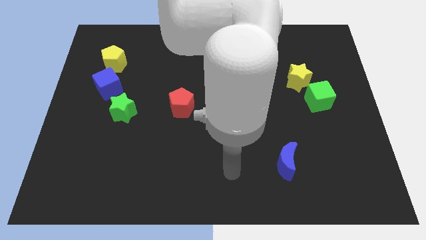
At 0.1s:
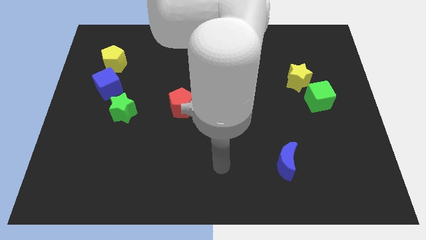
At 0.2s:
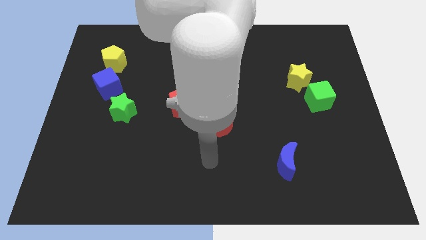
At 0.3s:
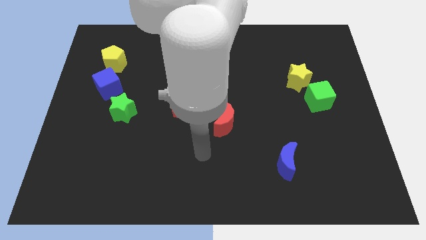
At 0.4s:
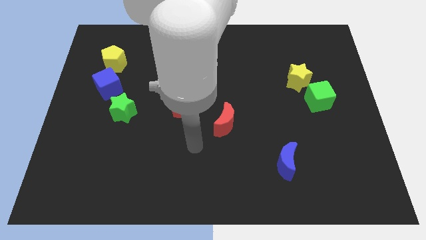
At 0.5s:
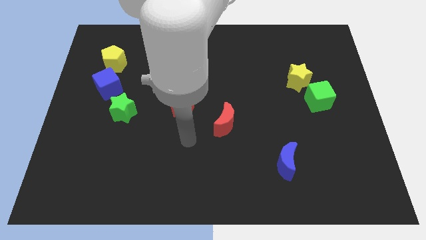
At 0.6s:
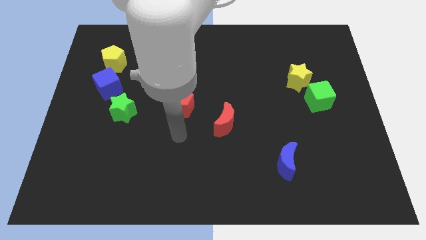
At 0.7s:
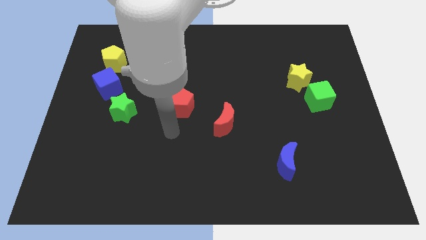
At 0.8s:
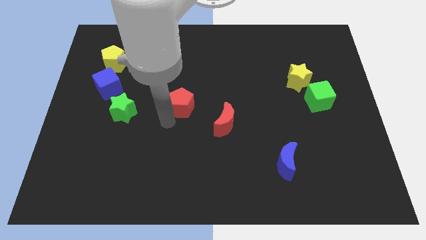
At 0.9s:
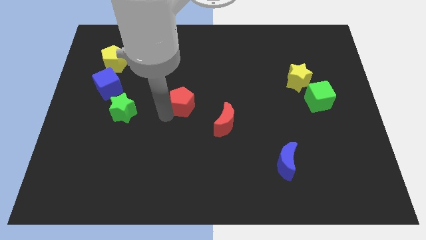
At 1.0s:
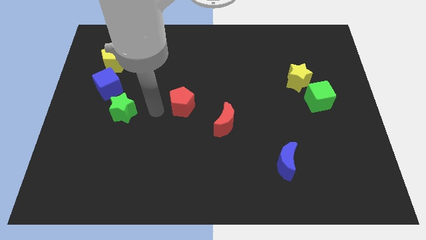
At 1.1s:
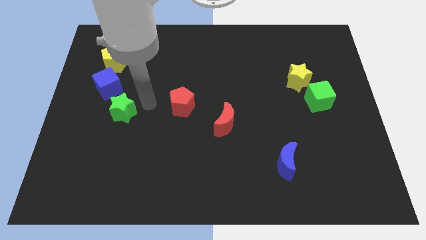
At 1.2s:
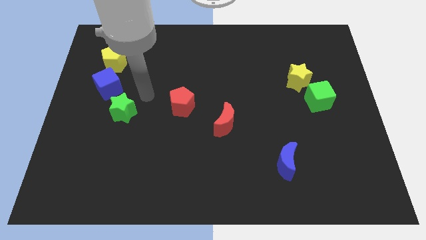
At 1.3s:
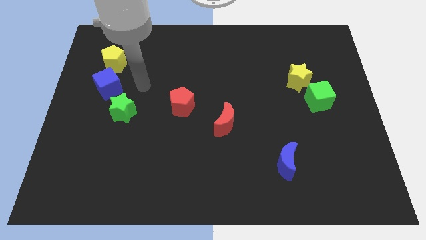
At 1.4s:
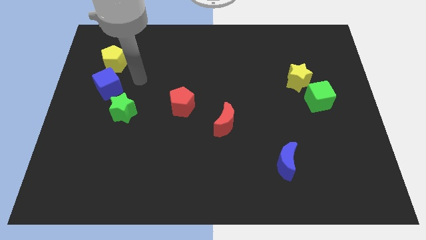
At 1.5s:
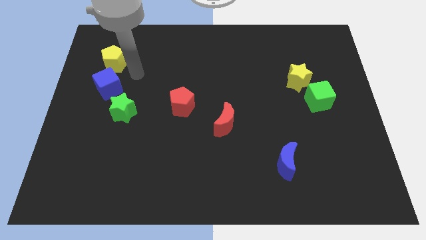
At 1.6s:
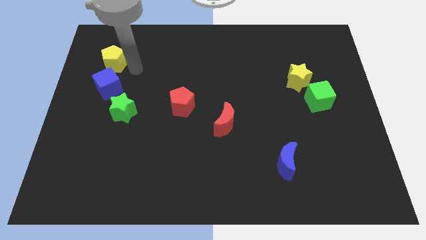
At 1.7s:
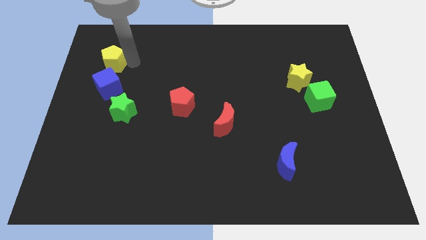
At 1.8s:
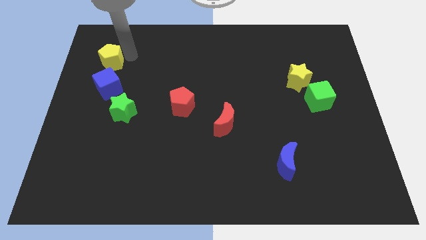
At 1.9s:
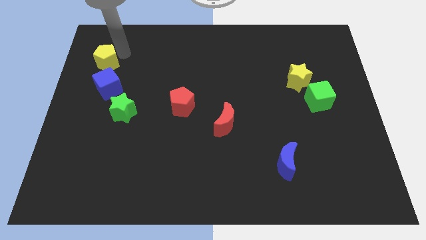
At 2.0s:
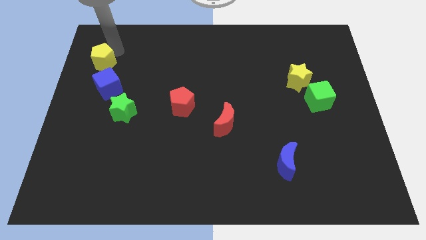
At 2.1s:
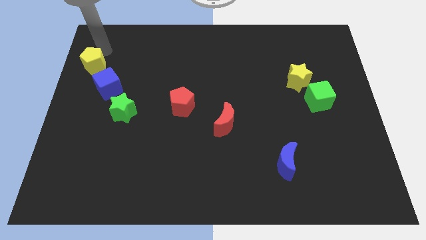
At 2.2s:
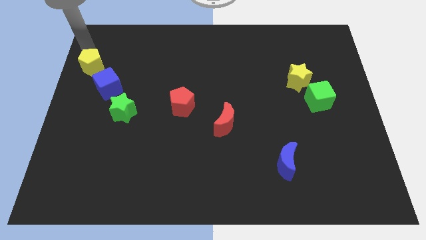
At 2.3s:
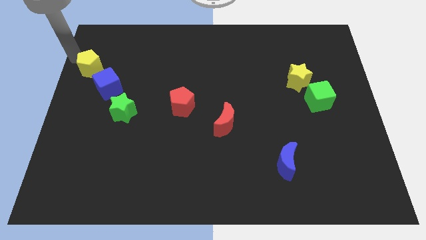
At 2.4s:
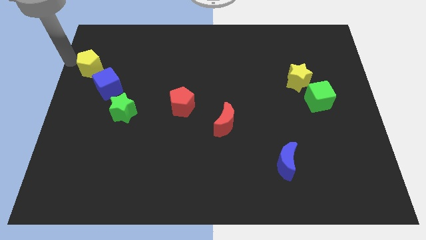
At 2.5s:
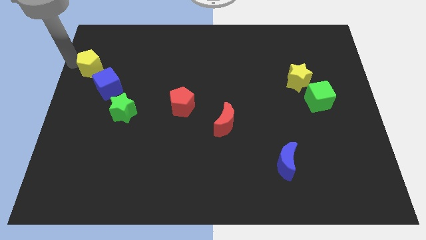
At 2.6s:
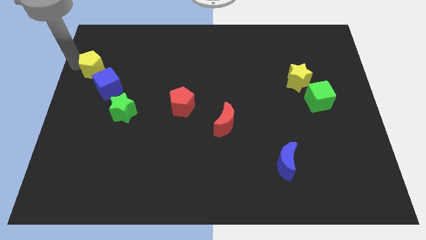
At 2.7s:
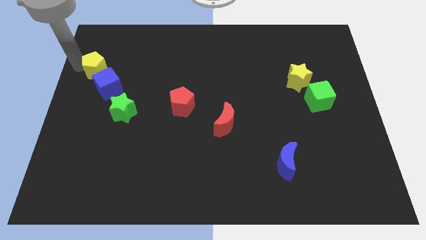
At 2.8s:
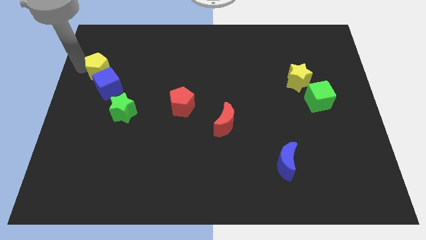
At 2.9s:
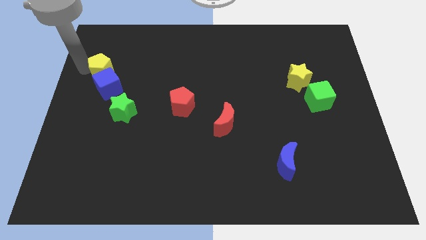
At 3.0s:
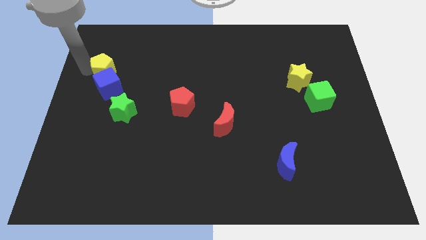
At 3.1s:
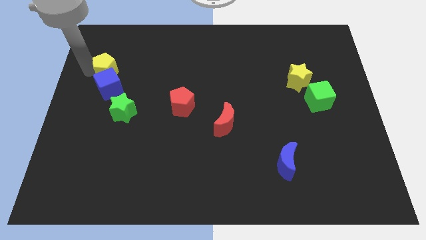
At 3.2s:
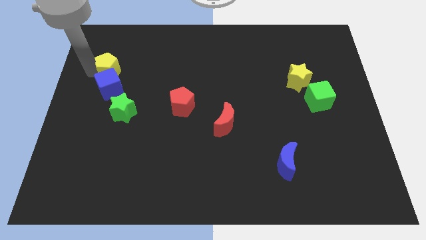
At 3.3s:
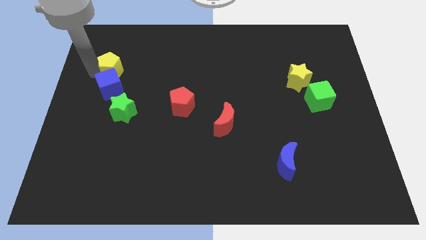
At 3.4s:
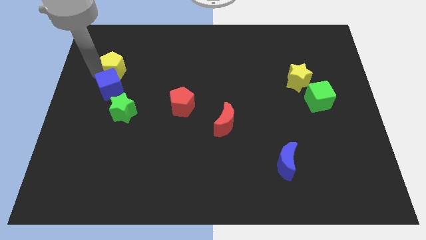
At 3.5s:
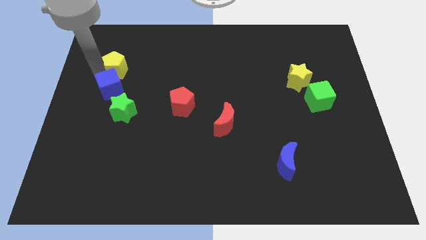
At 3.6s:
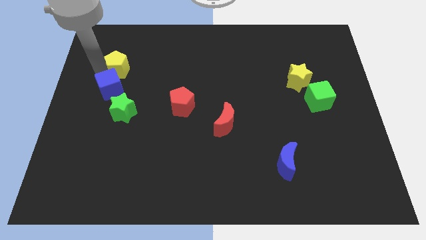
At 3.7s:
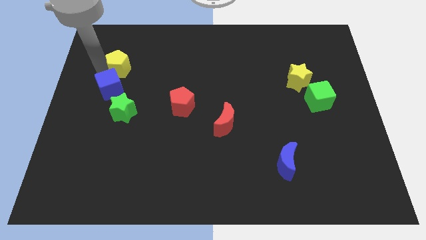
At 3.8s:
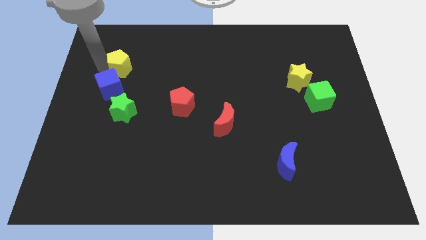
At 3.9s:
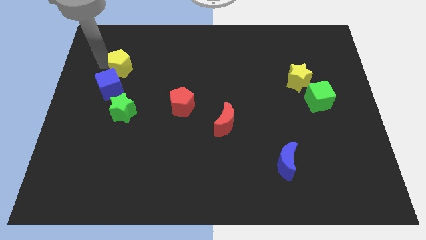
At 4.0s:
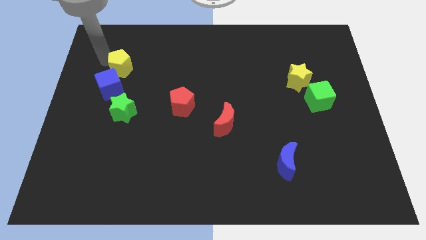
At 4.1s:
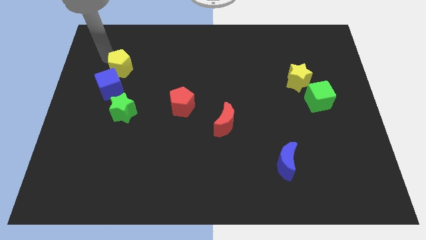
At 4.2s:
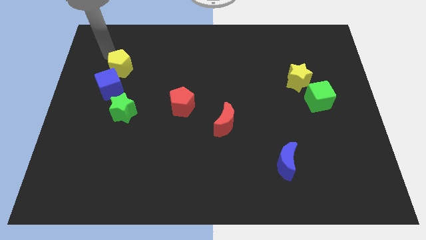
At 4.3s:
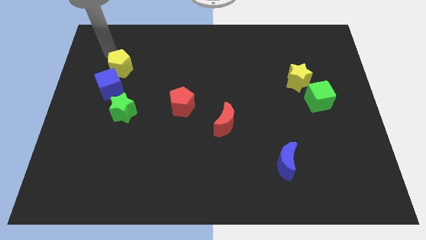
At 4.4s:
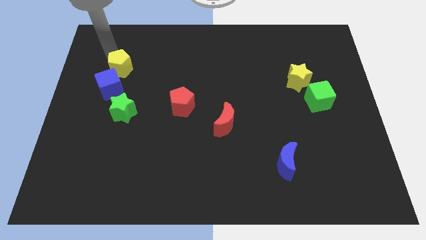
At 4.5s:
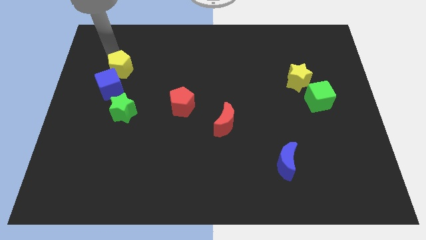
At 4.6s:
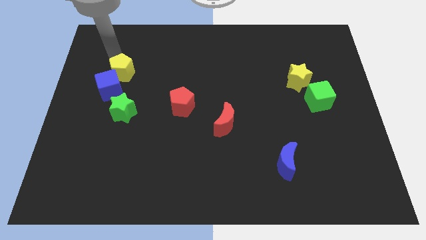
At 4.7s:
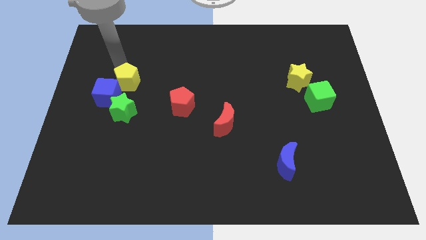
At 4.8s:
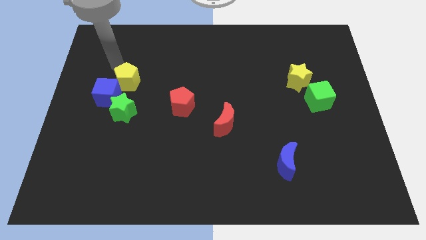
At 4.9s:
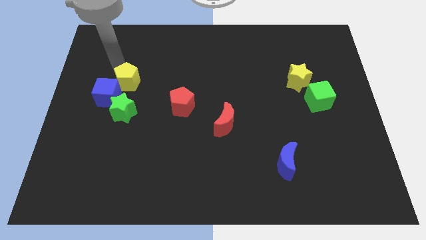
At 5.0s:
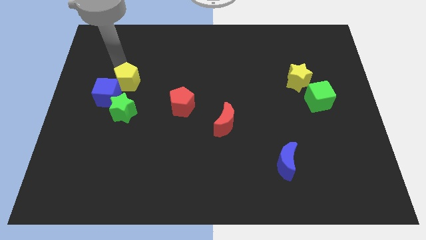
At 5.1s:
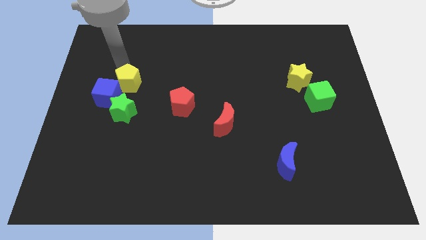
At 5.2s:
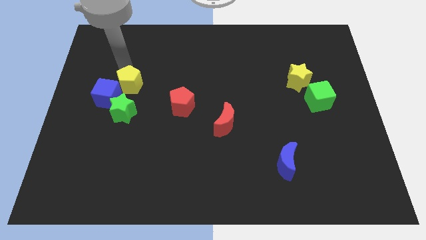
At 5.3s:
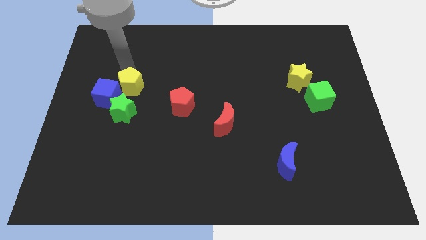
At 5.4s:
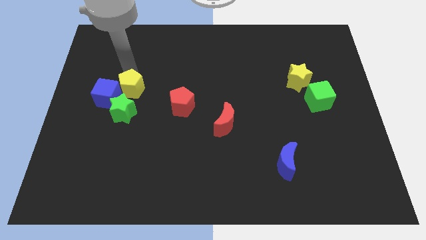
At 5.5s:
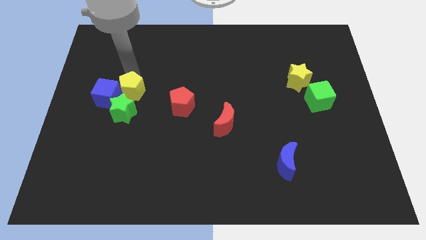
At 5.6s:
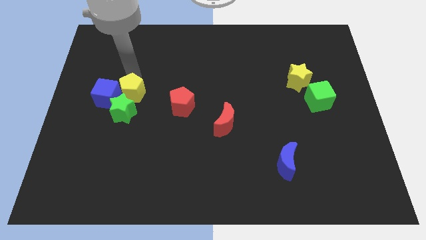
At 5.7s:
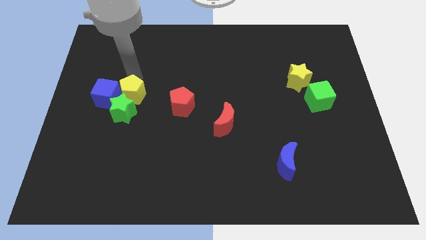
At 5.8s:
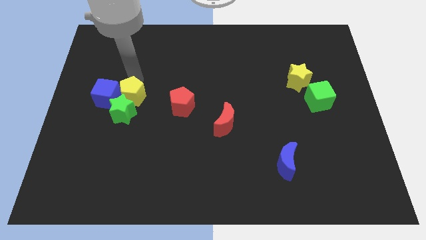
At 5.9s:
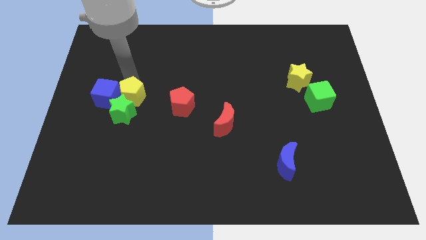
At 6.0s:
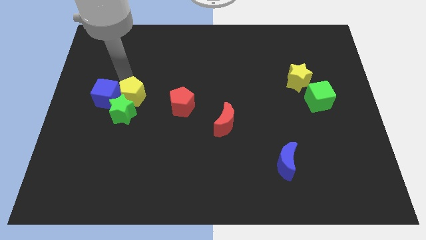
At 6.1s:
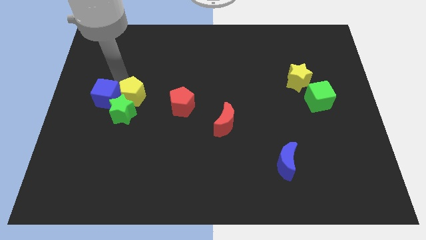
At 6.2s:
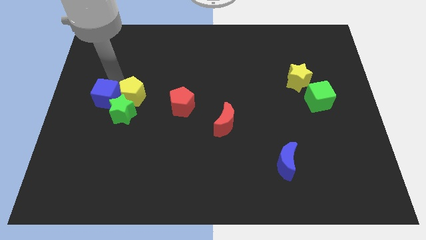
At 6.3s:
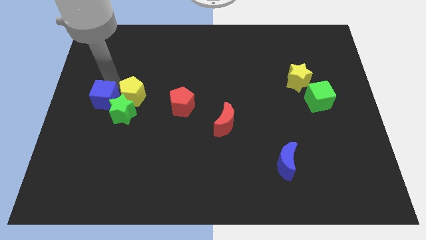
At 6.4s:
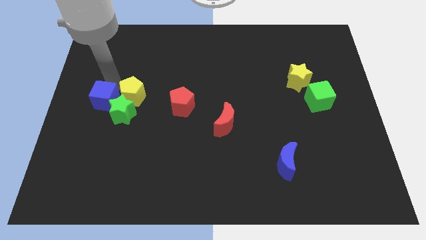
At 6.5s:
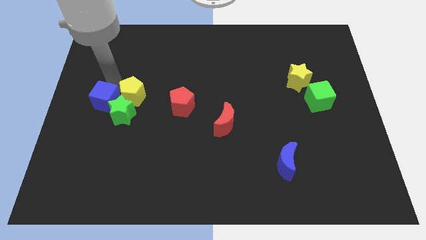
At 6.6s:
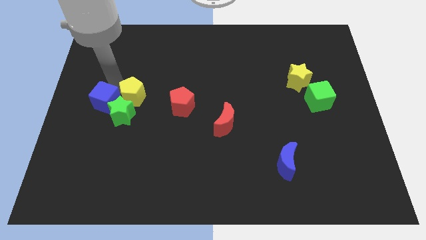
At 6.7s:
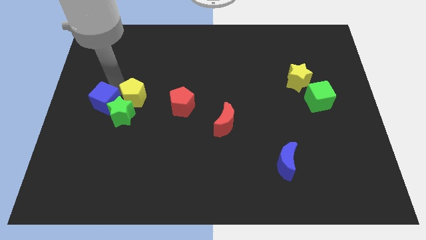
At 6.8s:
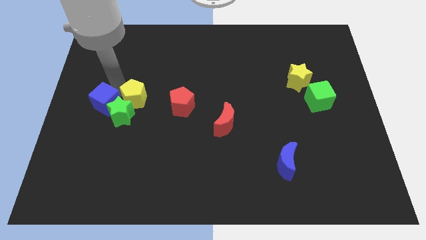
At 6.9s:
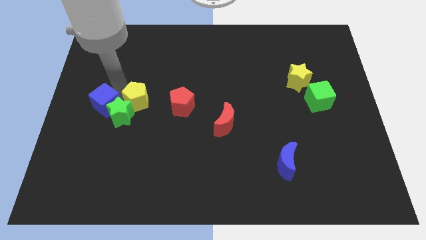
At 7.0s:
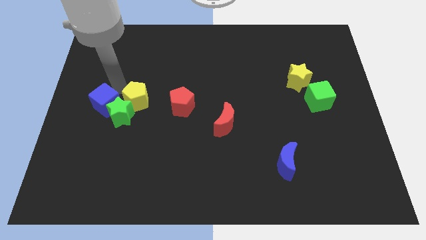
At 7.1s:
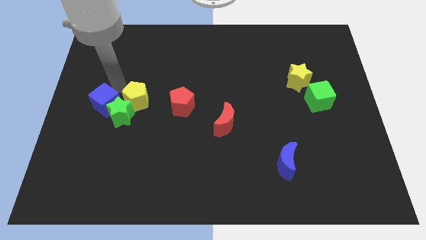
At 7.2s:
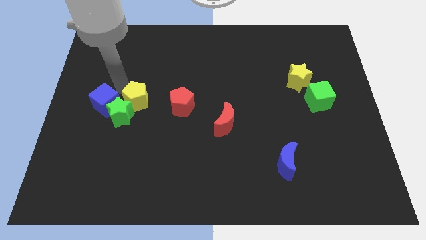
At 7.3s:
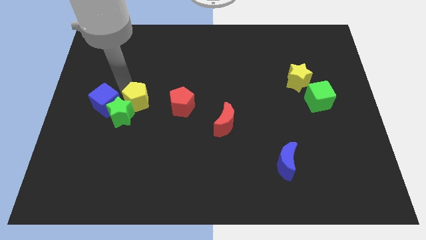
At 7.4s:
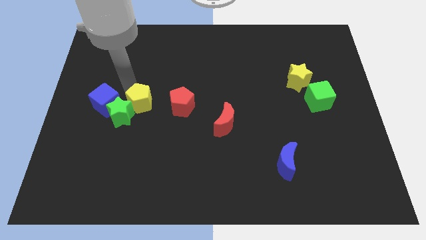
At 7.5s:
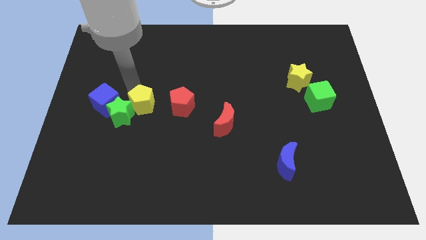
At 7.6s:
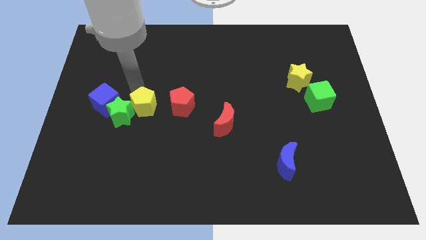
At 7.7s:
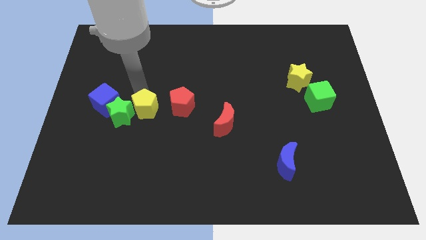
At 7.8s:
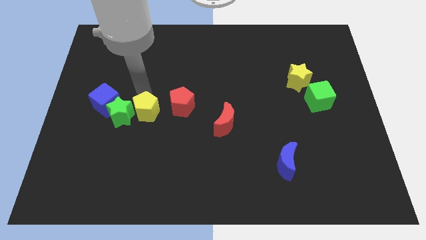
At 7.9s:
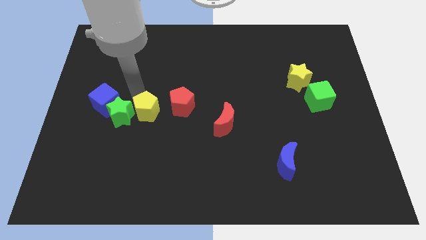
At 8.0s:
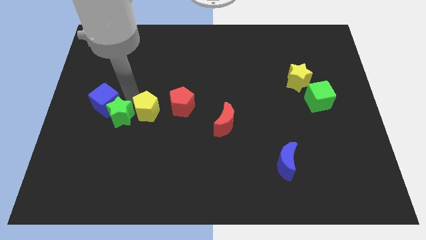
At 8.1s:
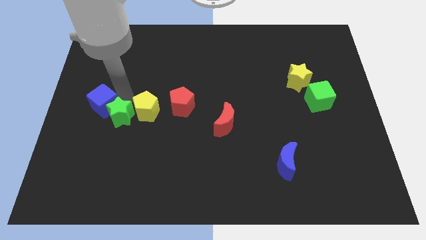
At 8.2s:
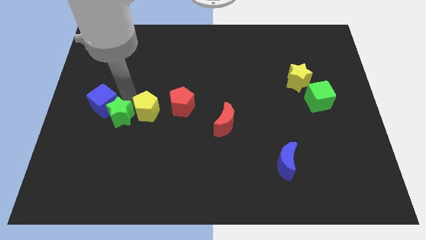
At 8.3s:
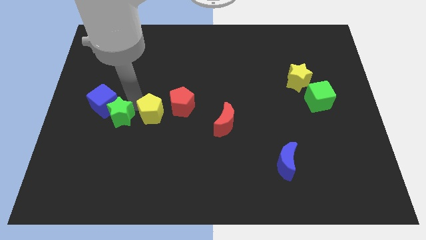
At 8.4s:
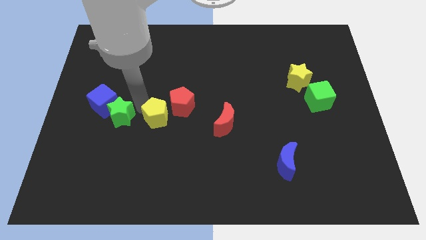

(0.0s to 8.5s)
slide the yellow pentagon down and then right
